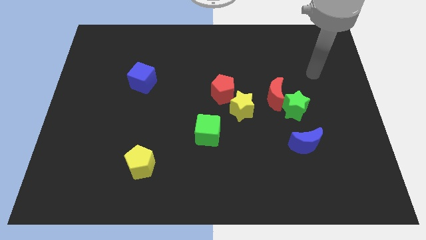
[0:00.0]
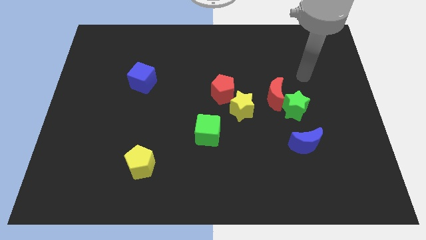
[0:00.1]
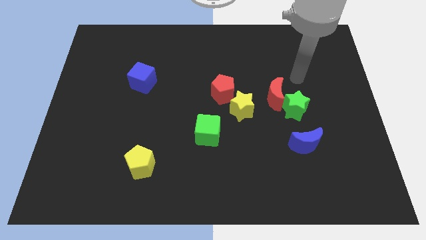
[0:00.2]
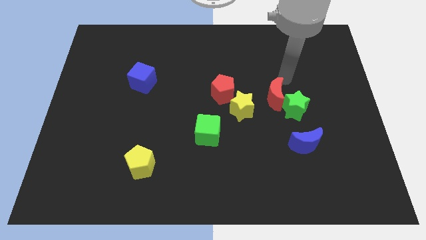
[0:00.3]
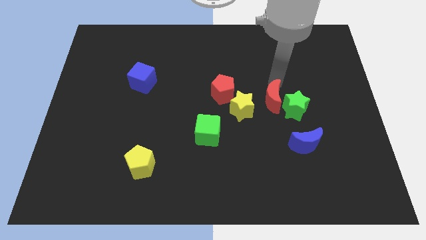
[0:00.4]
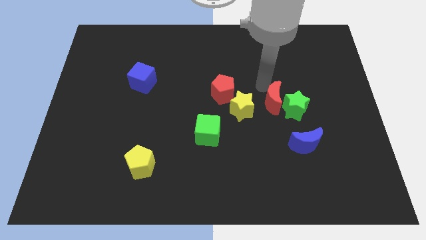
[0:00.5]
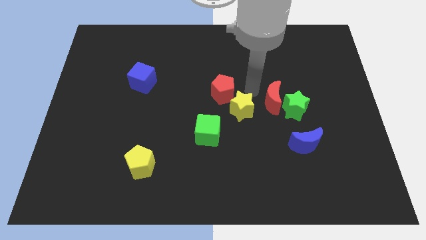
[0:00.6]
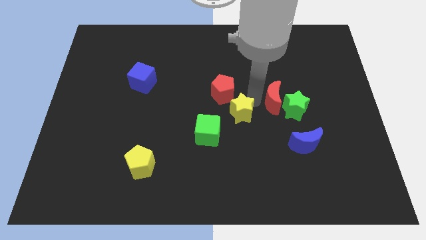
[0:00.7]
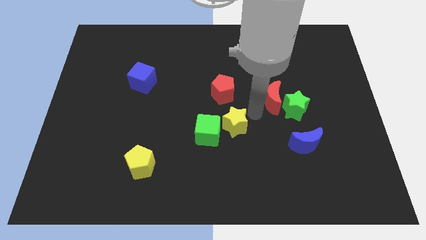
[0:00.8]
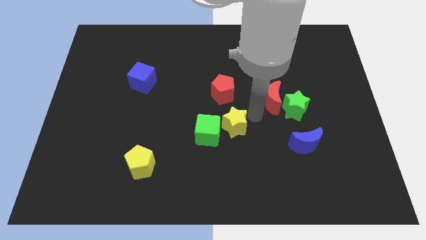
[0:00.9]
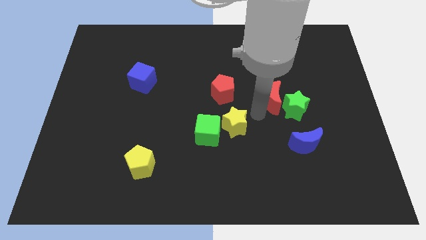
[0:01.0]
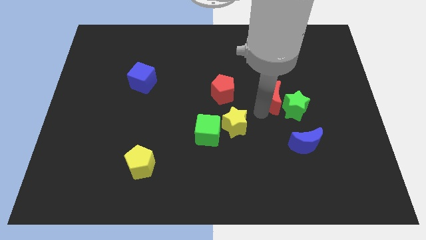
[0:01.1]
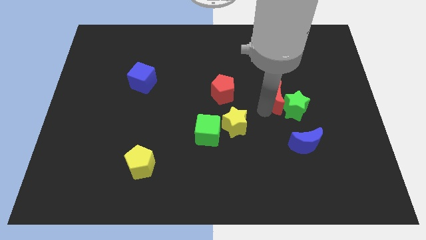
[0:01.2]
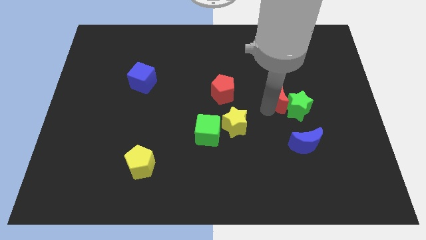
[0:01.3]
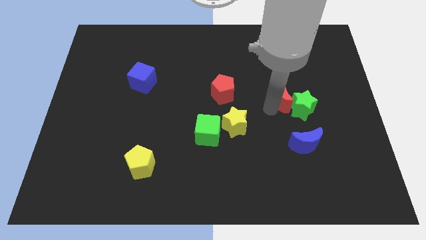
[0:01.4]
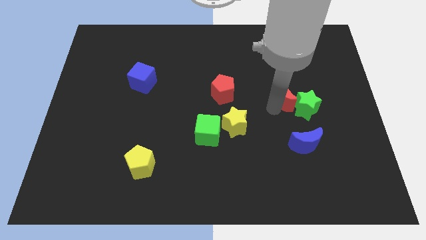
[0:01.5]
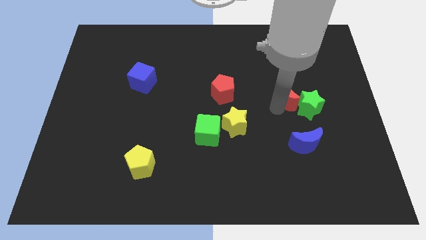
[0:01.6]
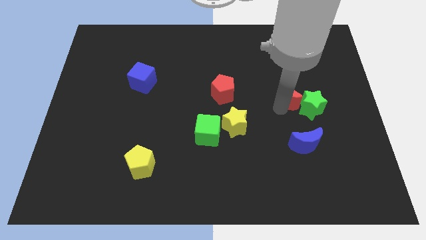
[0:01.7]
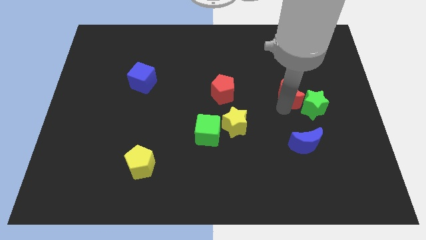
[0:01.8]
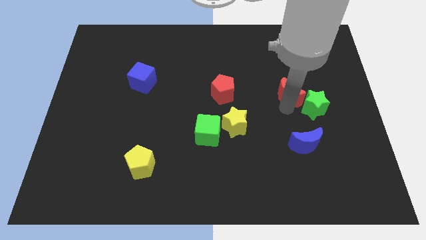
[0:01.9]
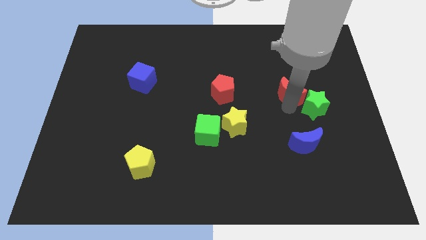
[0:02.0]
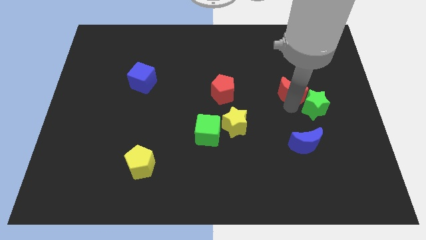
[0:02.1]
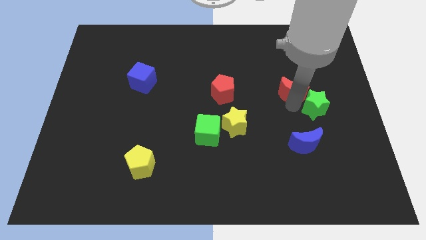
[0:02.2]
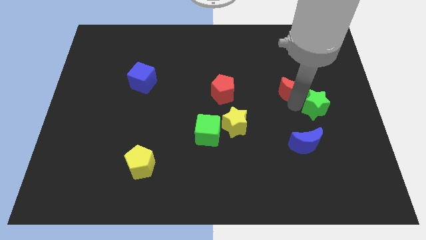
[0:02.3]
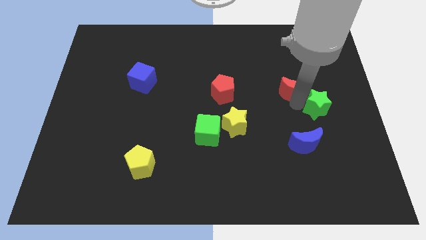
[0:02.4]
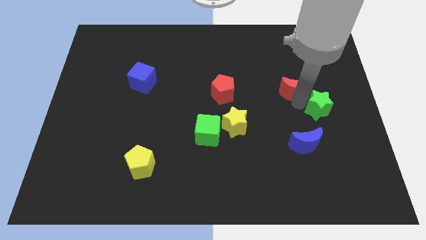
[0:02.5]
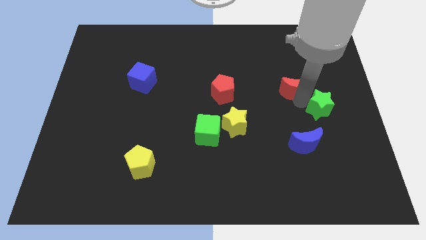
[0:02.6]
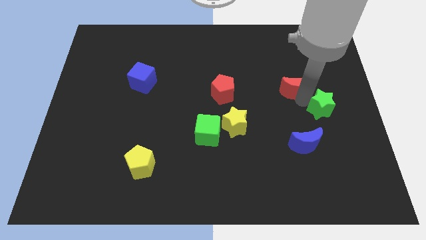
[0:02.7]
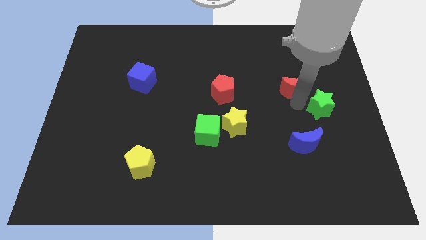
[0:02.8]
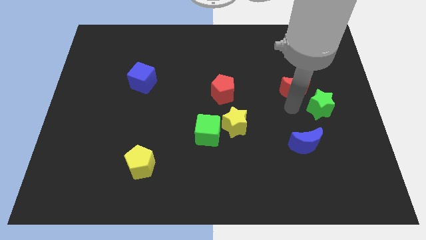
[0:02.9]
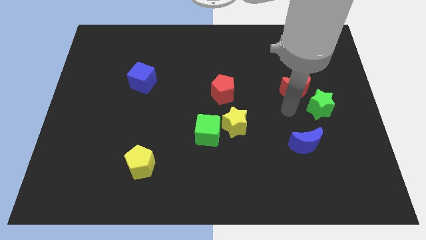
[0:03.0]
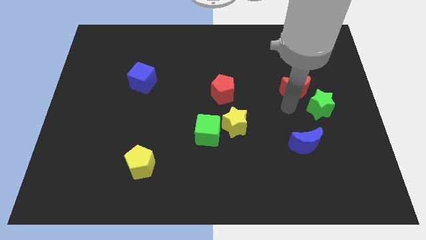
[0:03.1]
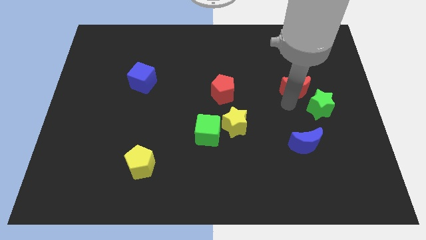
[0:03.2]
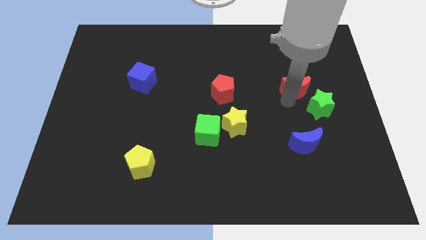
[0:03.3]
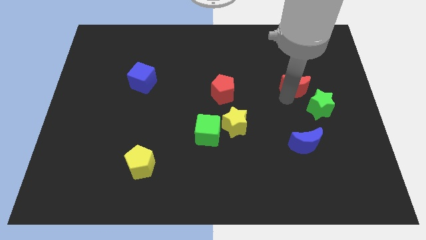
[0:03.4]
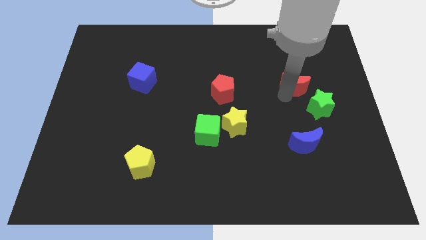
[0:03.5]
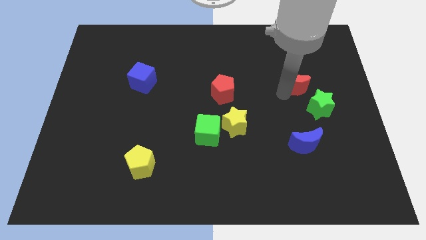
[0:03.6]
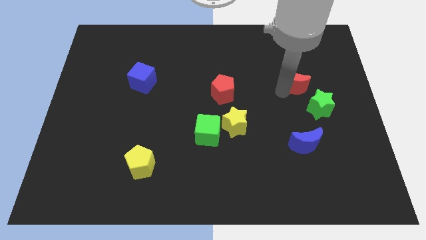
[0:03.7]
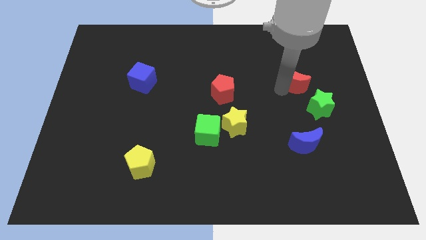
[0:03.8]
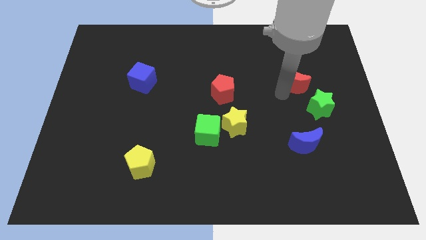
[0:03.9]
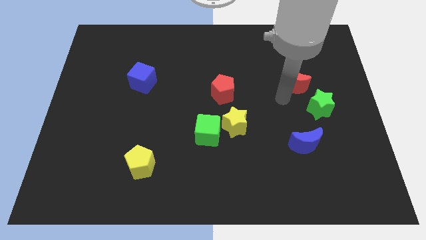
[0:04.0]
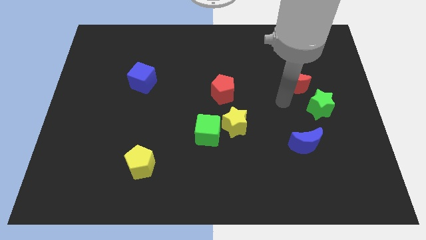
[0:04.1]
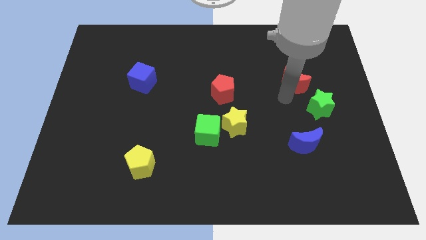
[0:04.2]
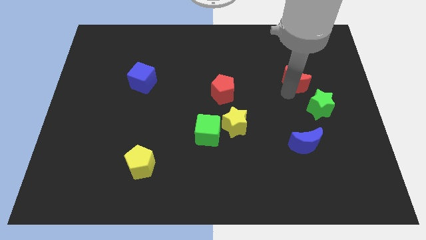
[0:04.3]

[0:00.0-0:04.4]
slightly push the red moon upwards and right diagonally

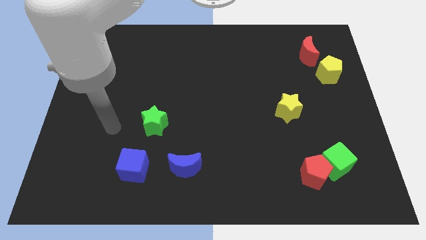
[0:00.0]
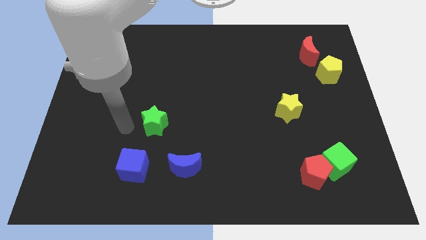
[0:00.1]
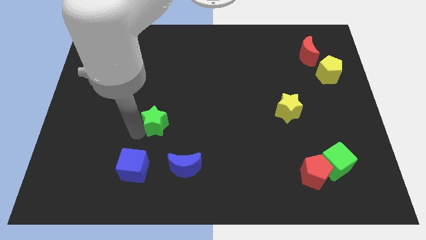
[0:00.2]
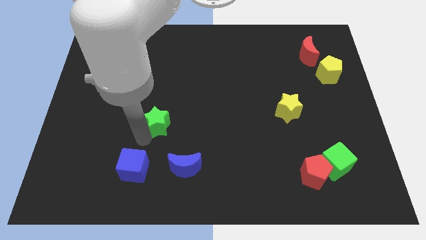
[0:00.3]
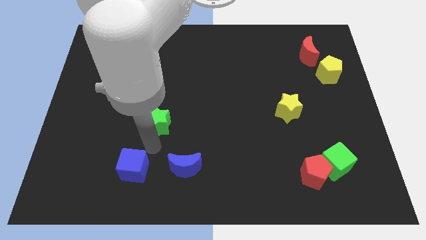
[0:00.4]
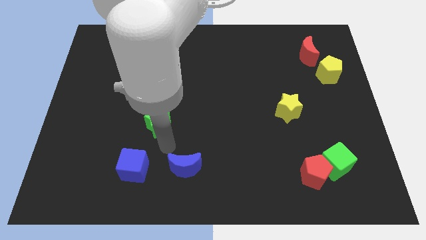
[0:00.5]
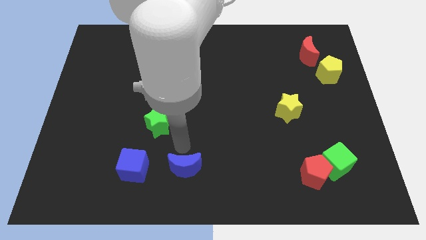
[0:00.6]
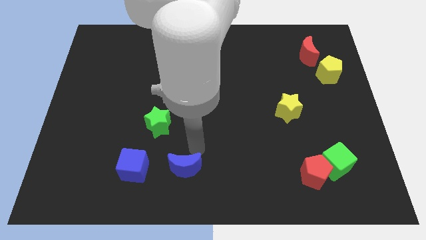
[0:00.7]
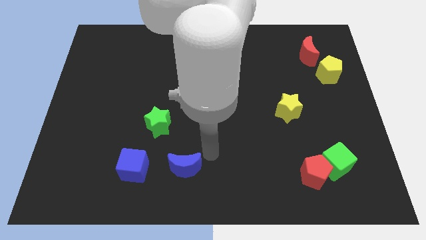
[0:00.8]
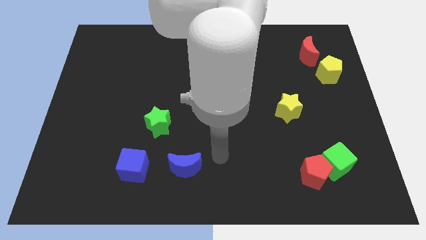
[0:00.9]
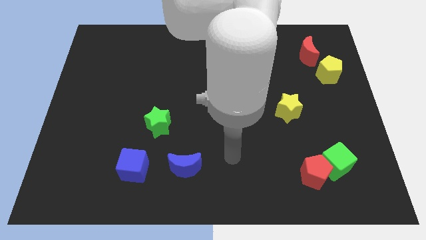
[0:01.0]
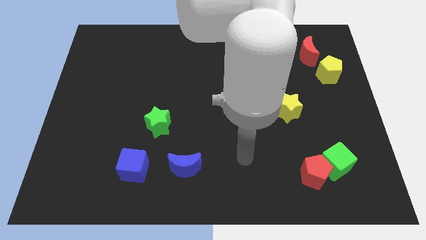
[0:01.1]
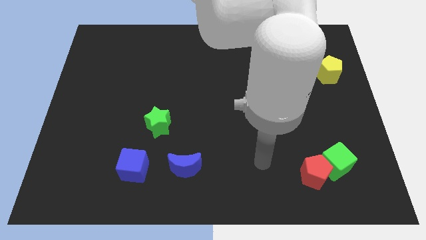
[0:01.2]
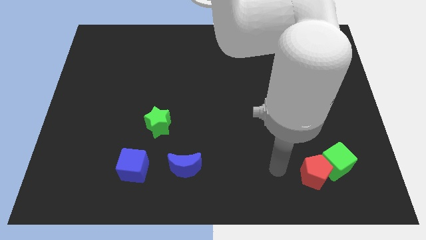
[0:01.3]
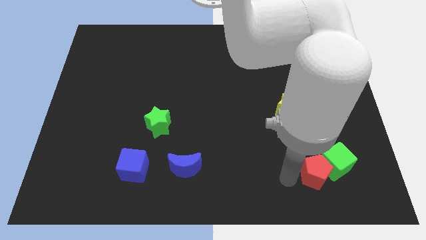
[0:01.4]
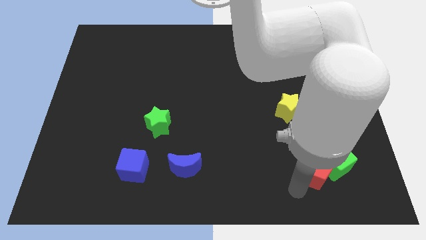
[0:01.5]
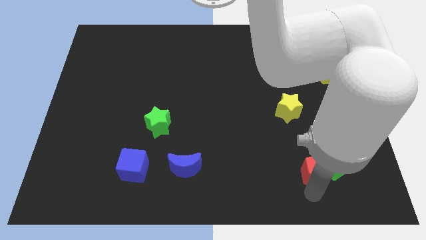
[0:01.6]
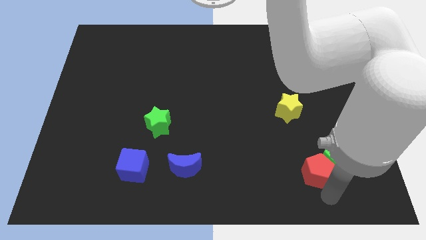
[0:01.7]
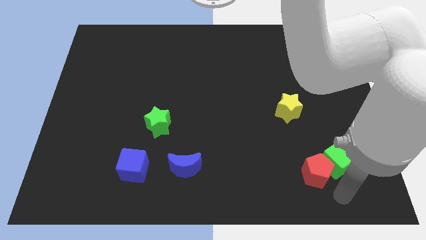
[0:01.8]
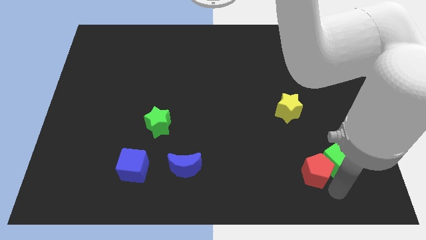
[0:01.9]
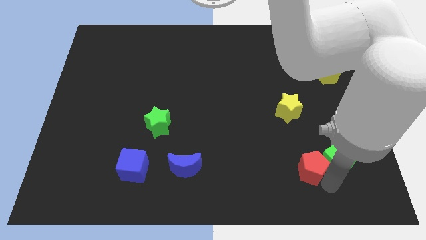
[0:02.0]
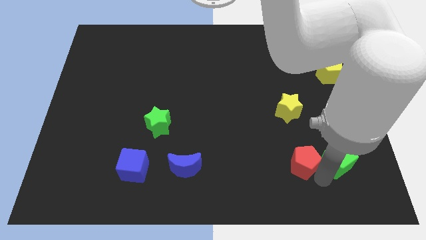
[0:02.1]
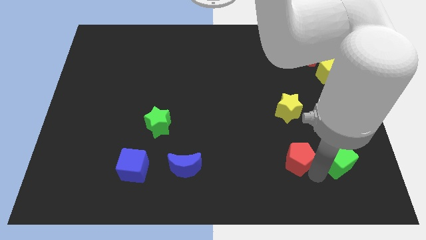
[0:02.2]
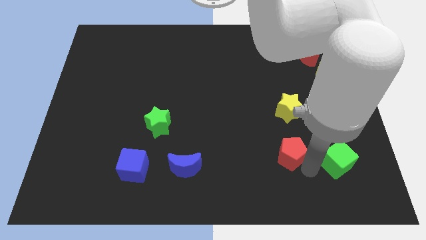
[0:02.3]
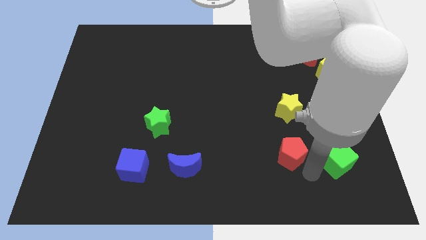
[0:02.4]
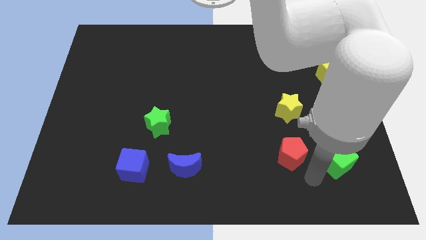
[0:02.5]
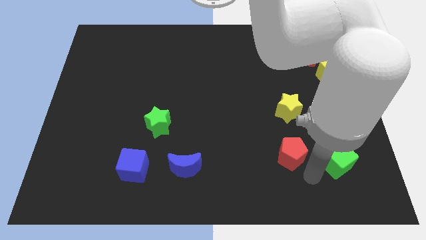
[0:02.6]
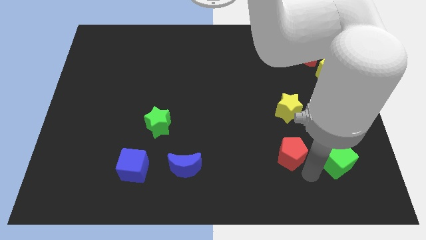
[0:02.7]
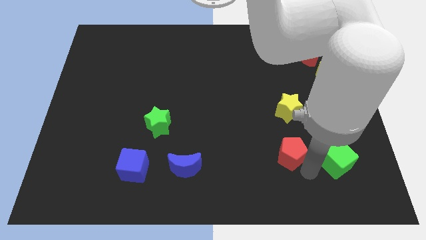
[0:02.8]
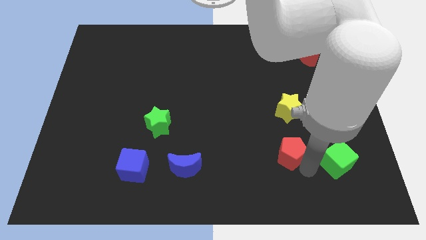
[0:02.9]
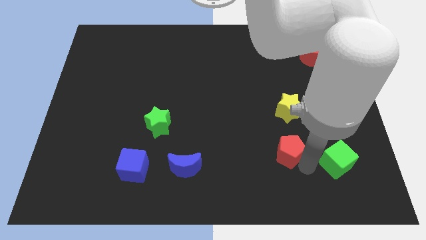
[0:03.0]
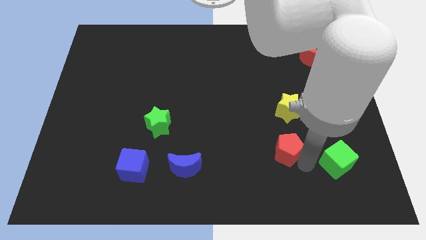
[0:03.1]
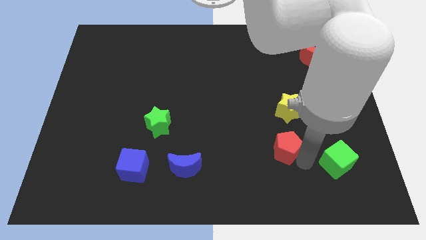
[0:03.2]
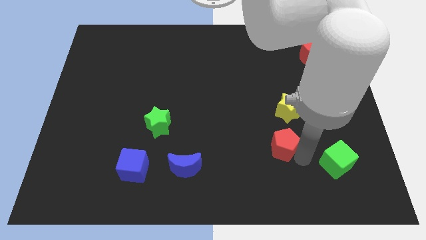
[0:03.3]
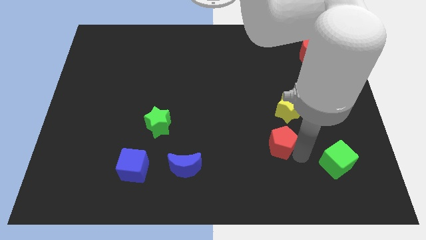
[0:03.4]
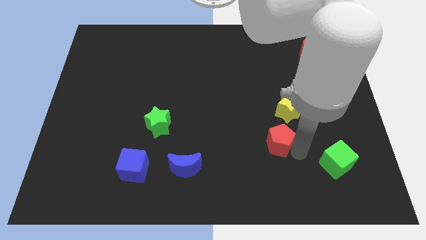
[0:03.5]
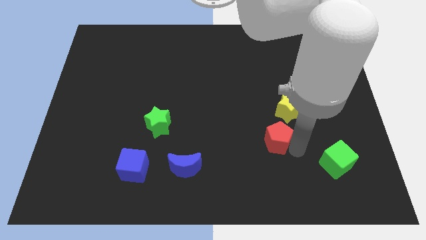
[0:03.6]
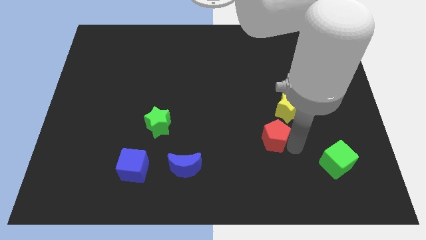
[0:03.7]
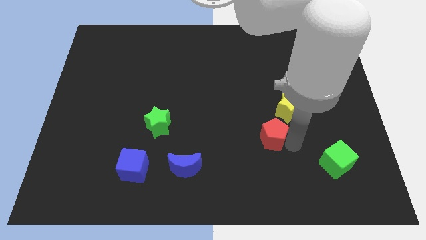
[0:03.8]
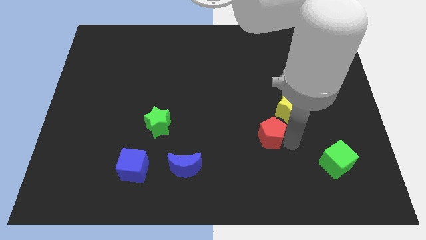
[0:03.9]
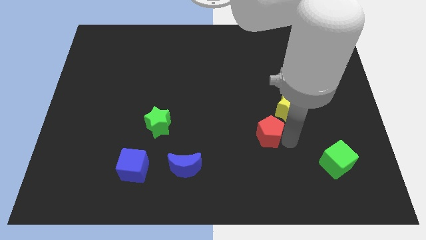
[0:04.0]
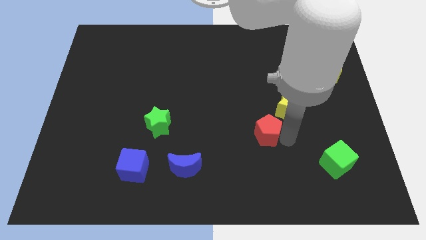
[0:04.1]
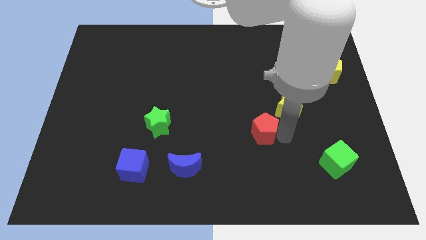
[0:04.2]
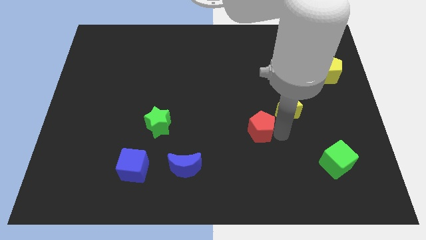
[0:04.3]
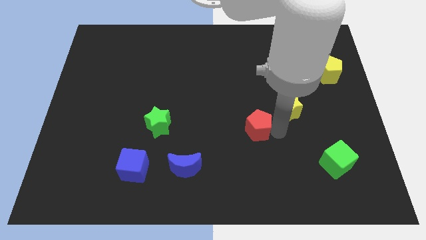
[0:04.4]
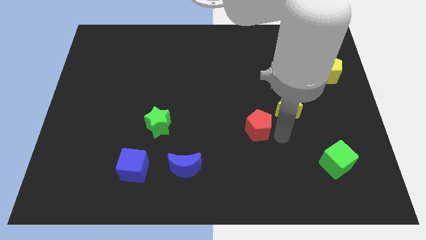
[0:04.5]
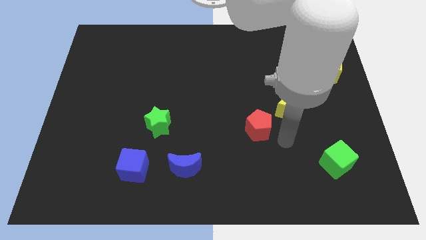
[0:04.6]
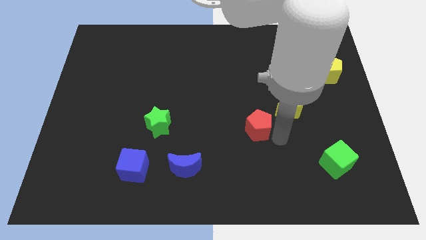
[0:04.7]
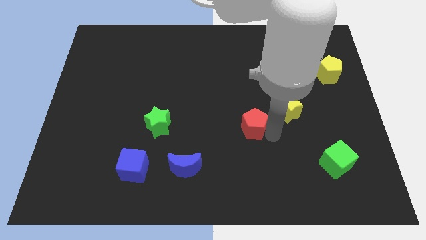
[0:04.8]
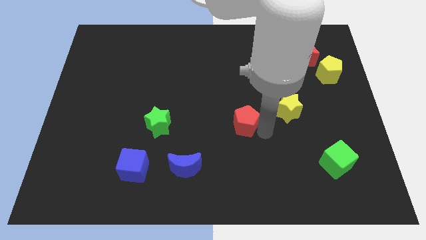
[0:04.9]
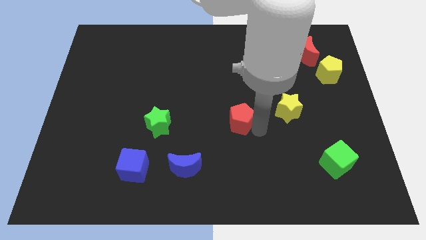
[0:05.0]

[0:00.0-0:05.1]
slide the red pentagon up and left diagonally
